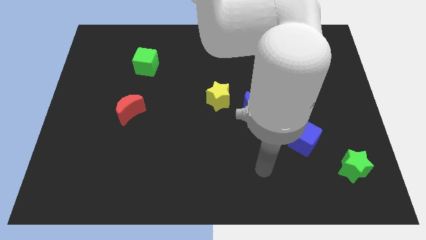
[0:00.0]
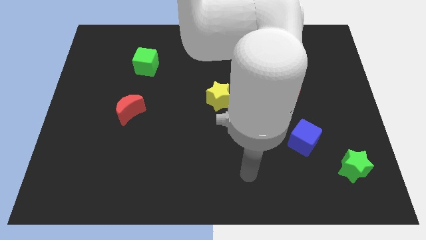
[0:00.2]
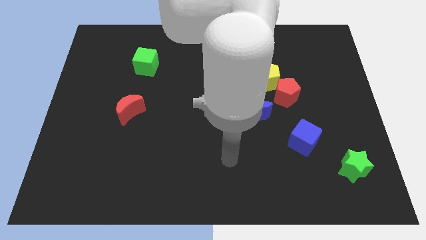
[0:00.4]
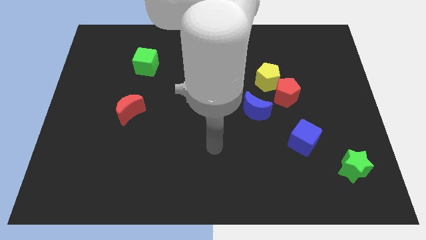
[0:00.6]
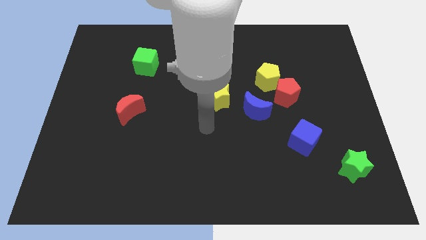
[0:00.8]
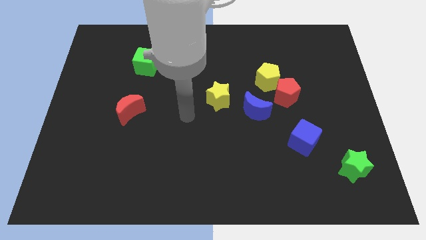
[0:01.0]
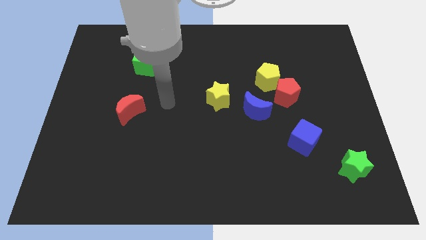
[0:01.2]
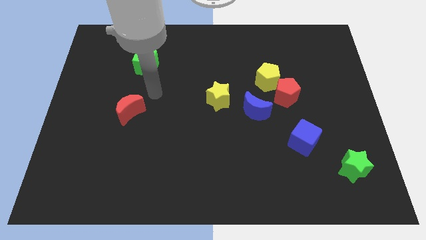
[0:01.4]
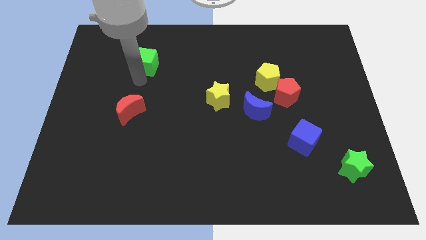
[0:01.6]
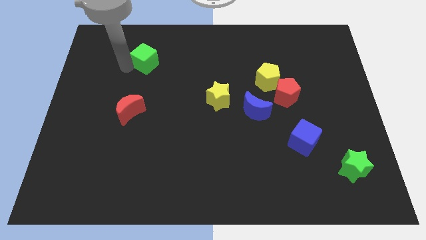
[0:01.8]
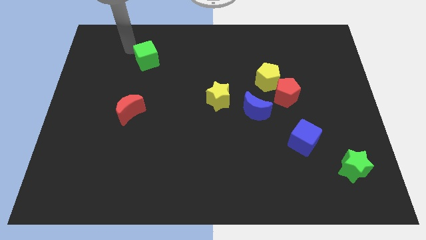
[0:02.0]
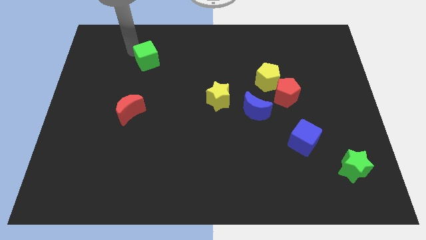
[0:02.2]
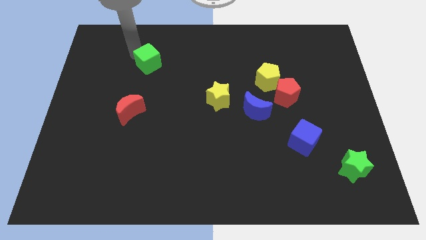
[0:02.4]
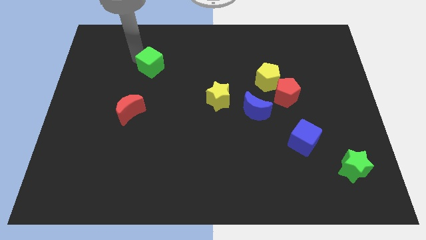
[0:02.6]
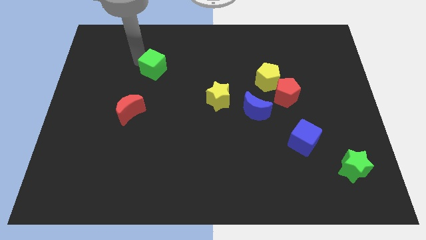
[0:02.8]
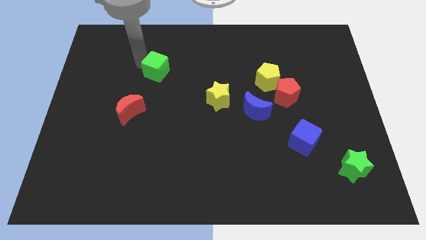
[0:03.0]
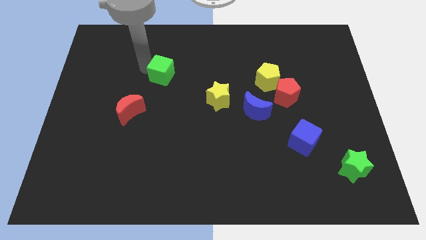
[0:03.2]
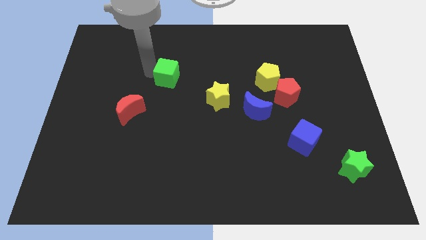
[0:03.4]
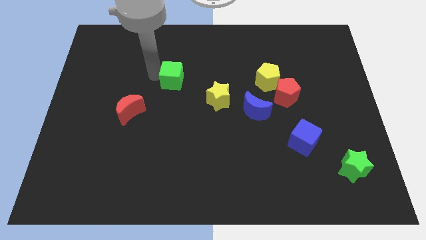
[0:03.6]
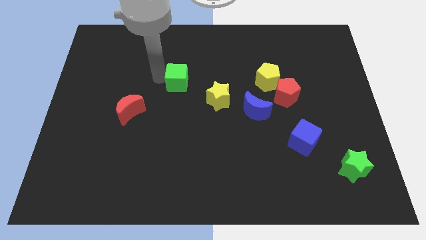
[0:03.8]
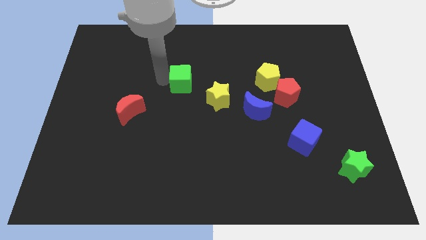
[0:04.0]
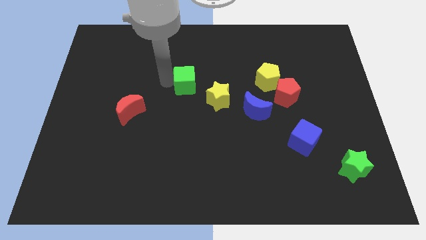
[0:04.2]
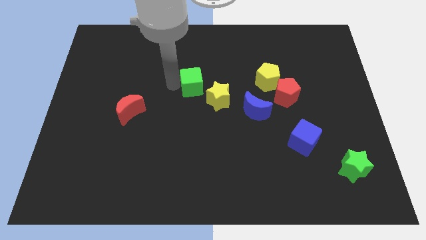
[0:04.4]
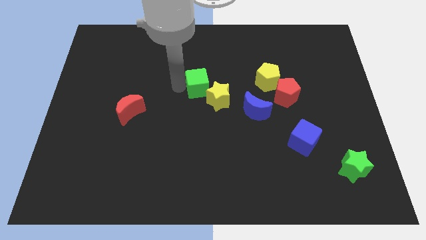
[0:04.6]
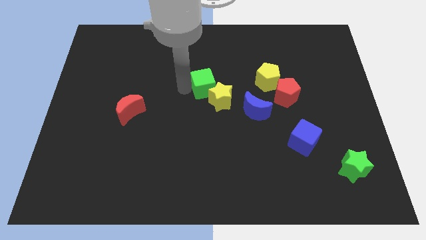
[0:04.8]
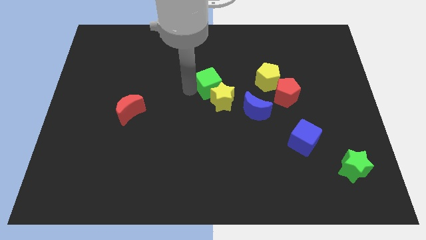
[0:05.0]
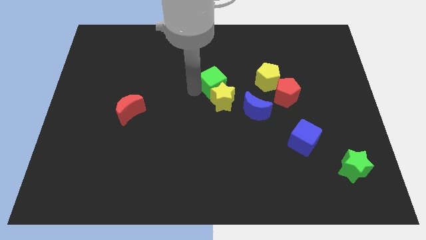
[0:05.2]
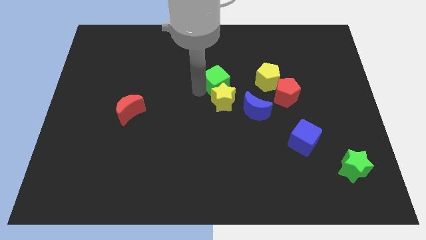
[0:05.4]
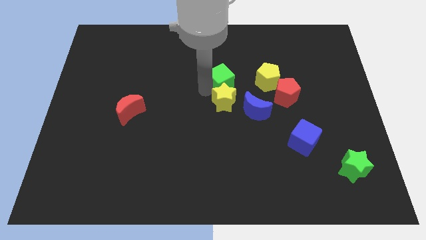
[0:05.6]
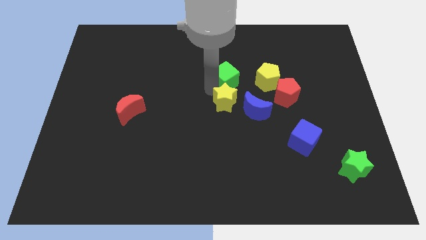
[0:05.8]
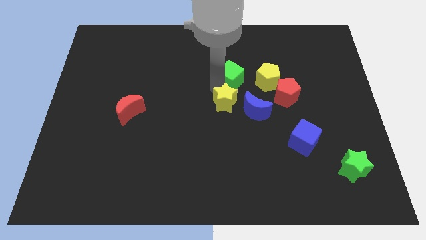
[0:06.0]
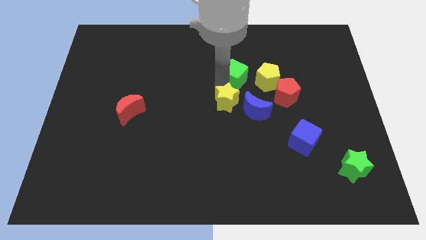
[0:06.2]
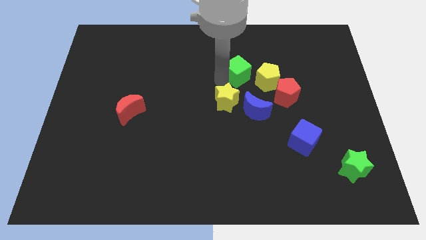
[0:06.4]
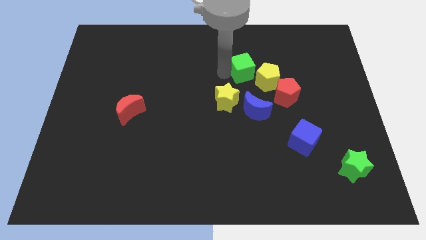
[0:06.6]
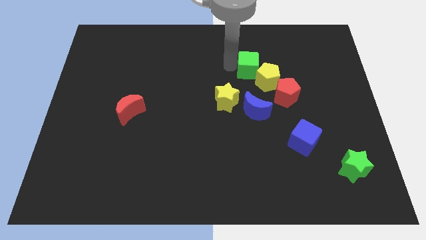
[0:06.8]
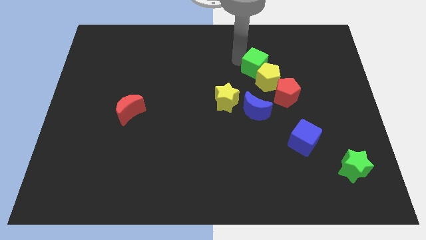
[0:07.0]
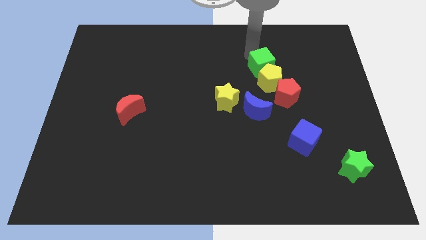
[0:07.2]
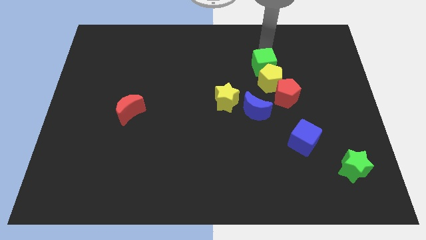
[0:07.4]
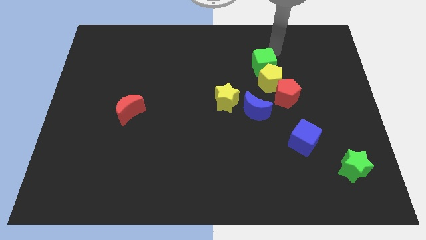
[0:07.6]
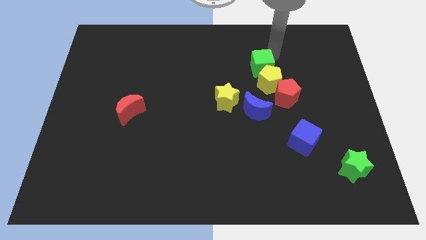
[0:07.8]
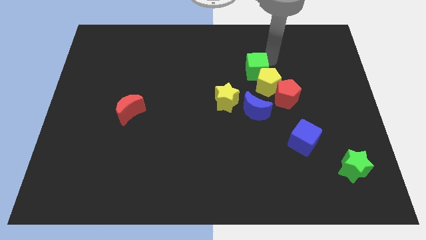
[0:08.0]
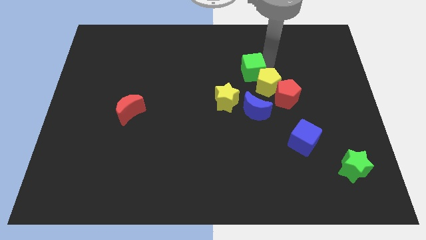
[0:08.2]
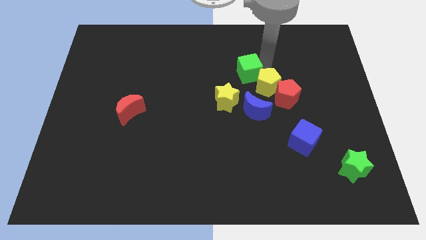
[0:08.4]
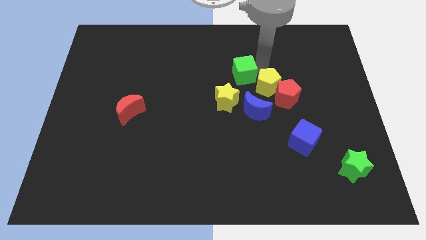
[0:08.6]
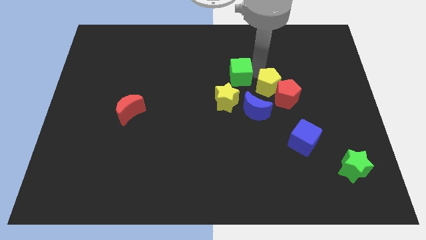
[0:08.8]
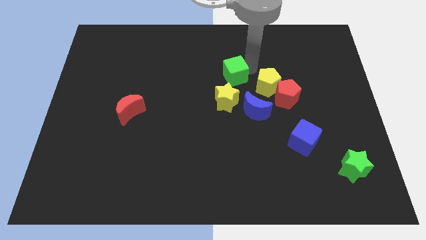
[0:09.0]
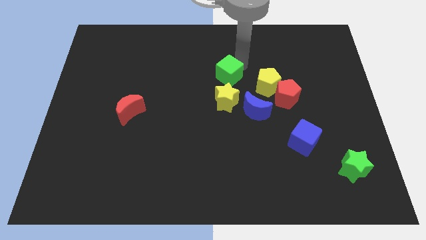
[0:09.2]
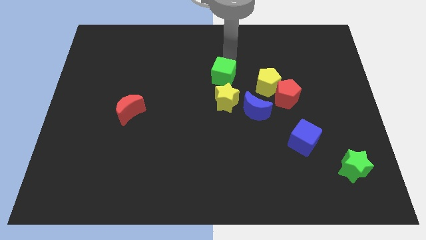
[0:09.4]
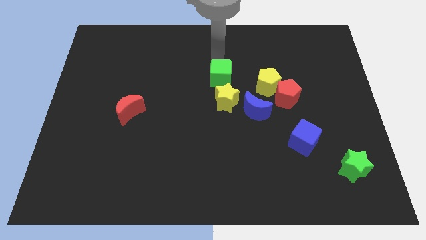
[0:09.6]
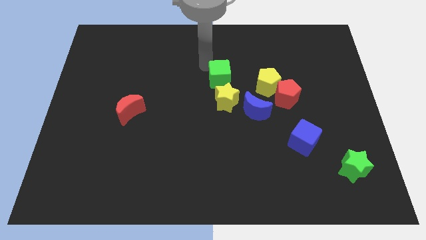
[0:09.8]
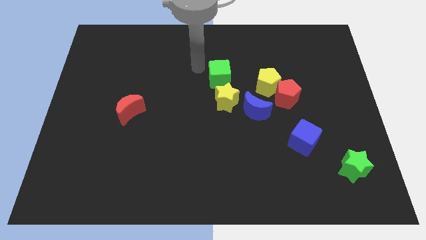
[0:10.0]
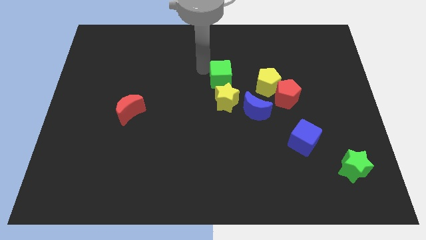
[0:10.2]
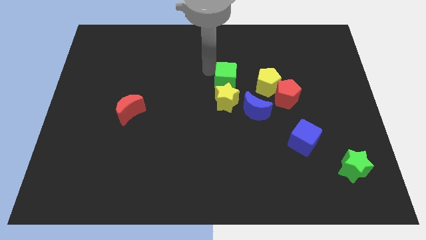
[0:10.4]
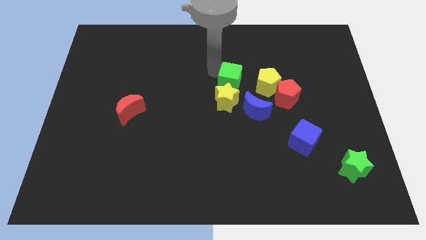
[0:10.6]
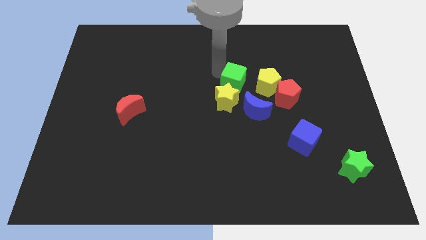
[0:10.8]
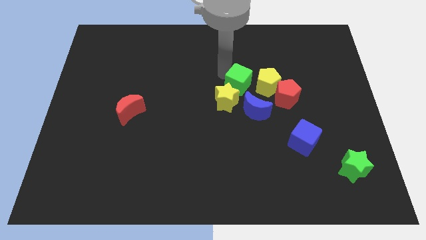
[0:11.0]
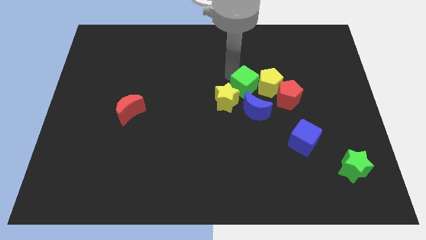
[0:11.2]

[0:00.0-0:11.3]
move the green cube to the right of the yellow star

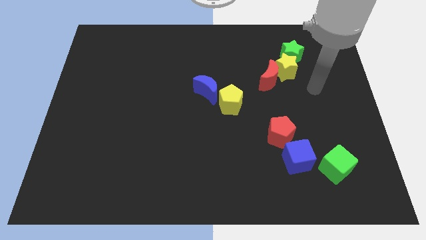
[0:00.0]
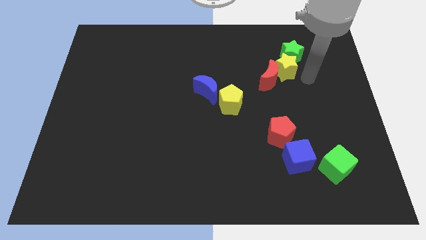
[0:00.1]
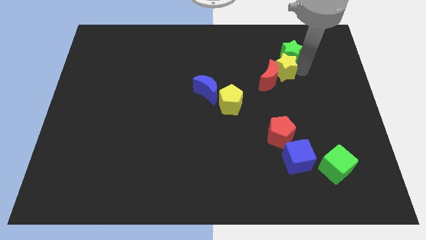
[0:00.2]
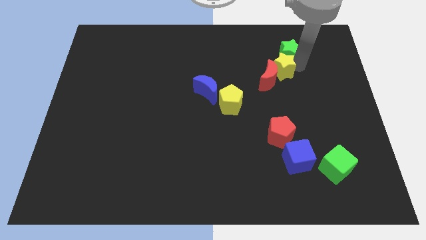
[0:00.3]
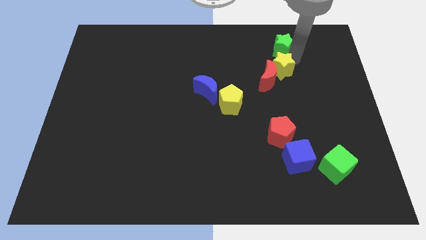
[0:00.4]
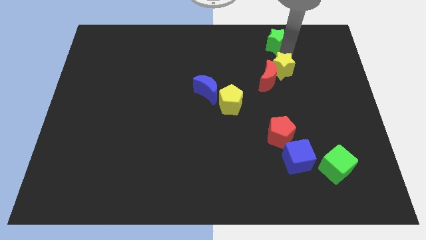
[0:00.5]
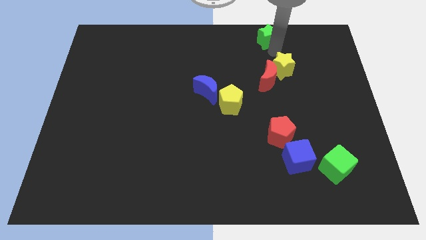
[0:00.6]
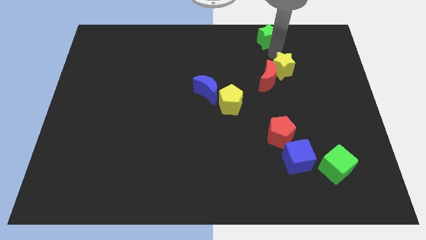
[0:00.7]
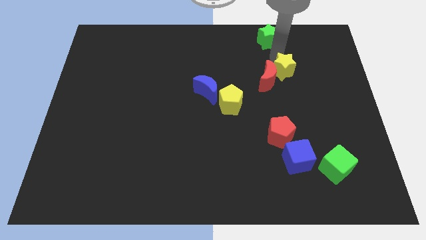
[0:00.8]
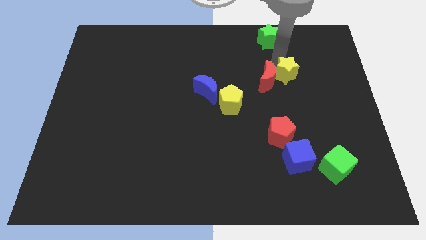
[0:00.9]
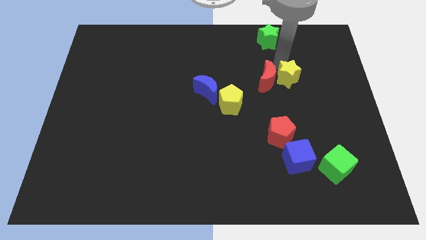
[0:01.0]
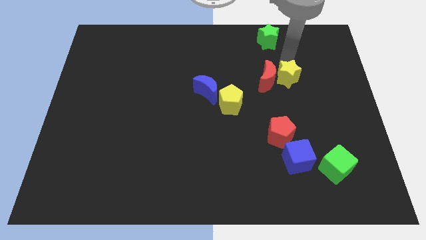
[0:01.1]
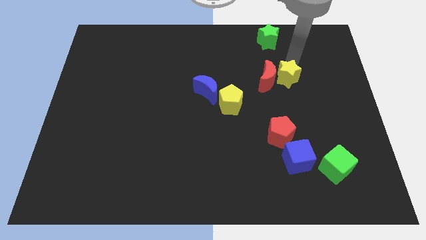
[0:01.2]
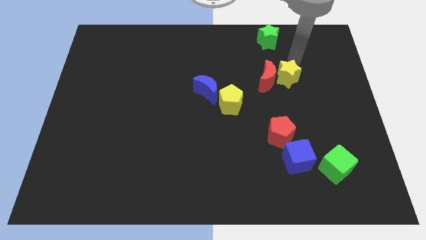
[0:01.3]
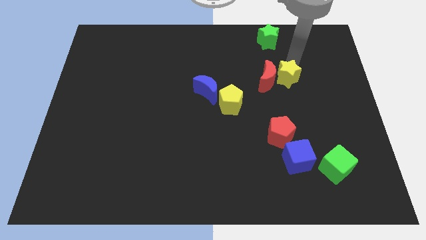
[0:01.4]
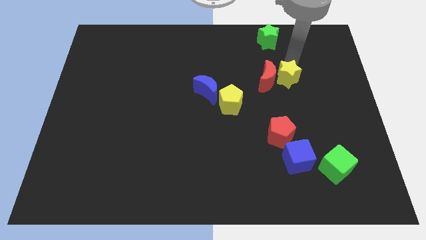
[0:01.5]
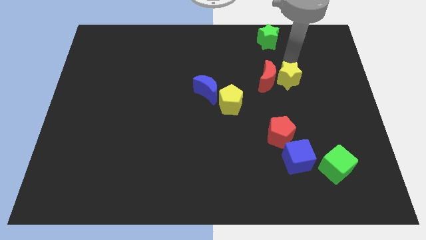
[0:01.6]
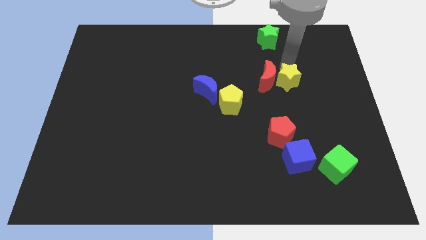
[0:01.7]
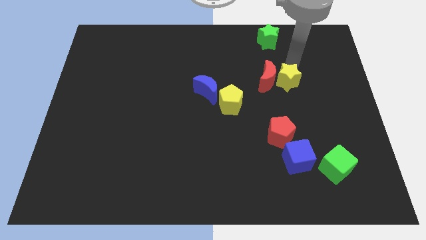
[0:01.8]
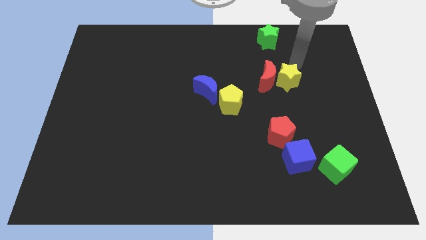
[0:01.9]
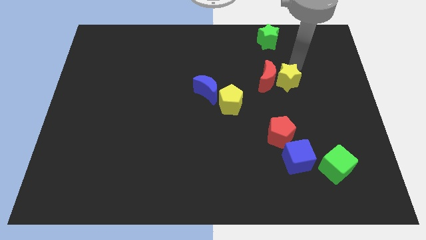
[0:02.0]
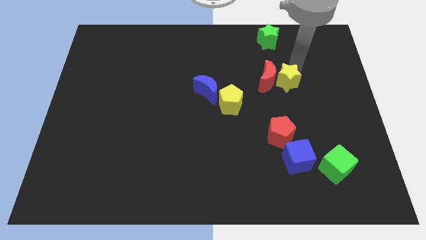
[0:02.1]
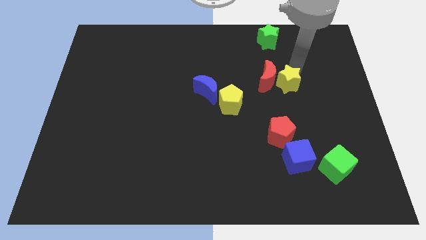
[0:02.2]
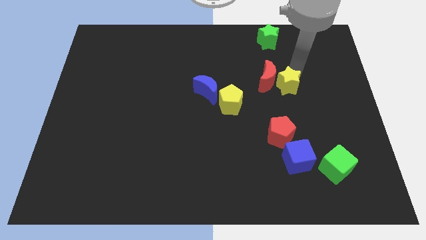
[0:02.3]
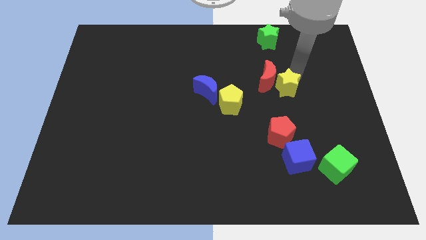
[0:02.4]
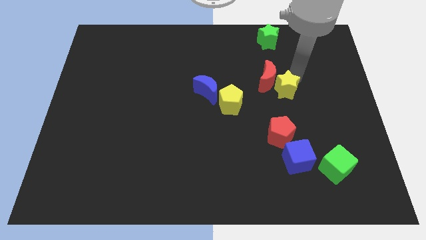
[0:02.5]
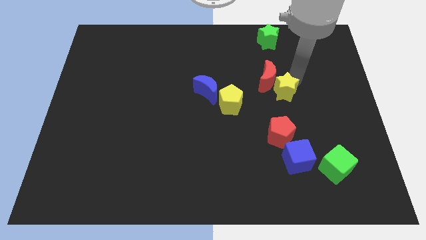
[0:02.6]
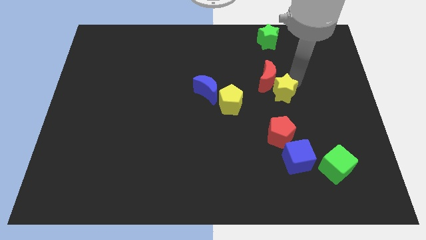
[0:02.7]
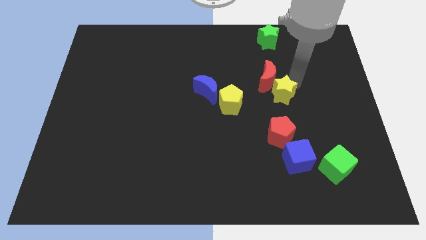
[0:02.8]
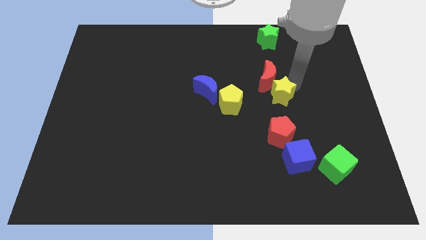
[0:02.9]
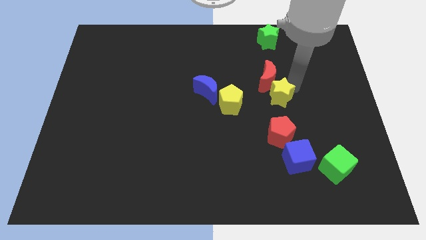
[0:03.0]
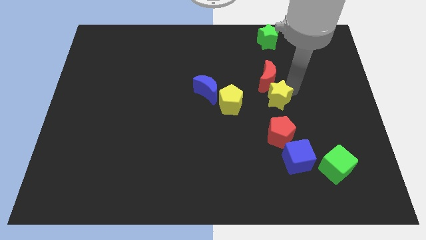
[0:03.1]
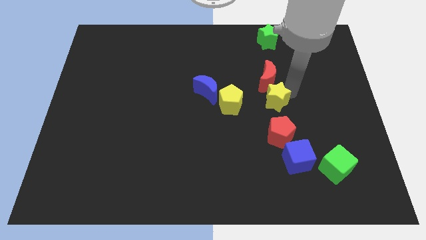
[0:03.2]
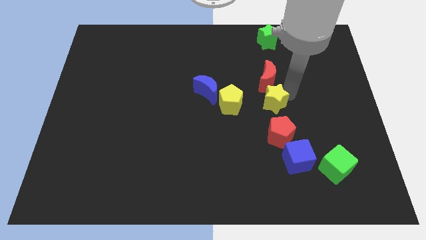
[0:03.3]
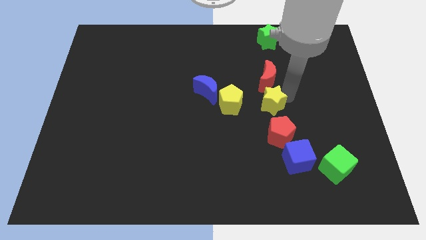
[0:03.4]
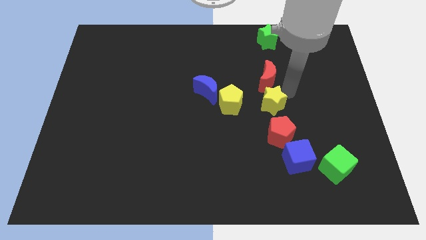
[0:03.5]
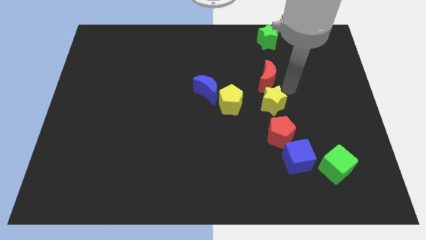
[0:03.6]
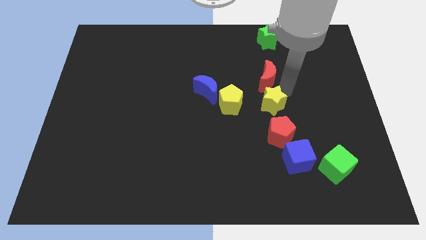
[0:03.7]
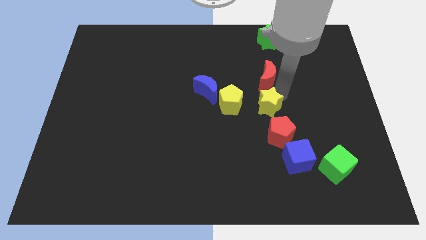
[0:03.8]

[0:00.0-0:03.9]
move the yellow star to the top left of the red pentagon
